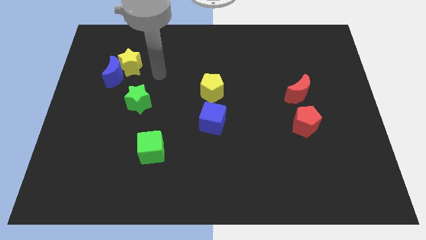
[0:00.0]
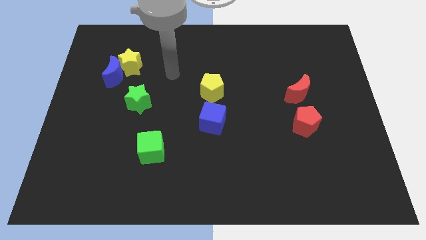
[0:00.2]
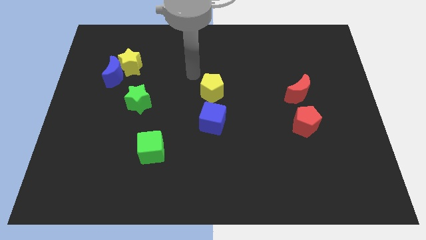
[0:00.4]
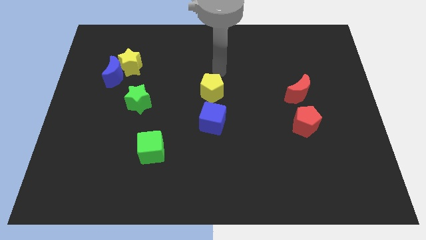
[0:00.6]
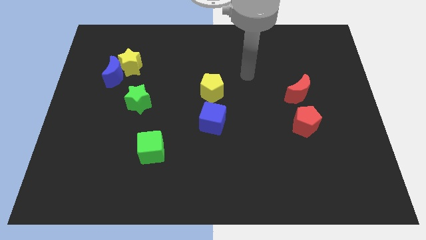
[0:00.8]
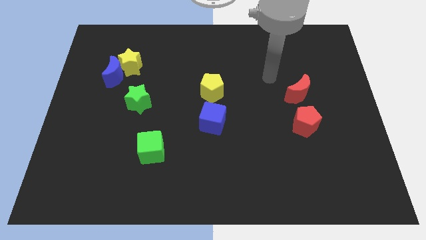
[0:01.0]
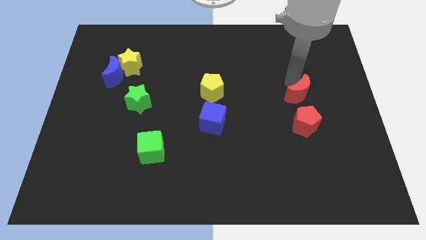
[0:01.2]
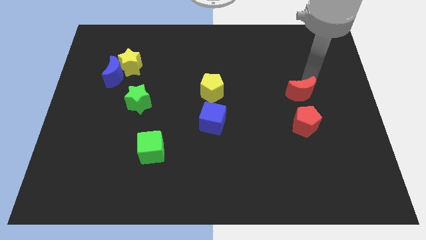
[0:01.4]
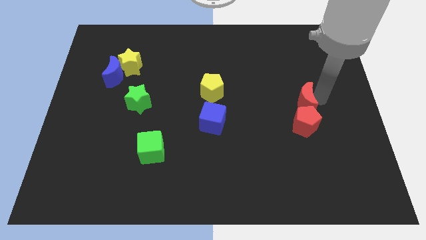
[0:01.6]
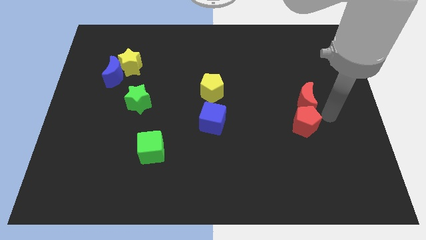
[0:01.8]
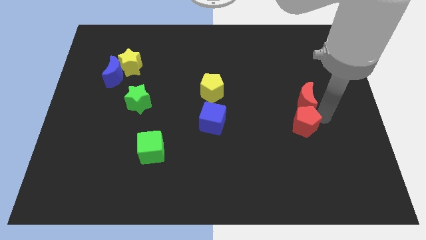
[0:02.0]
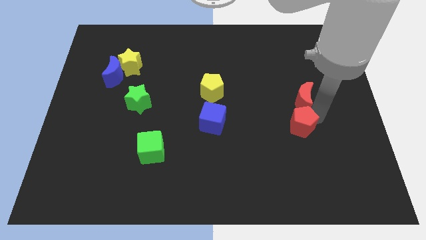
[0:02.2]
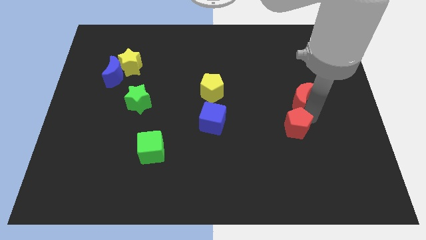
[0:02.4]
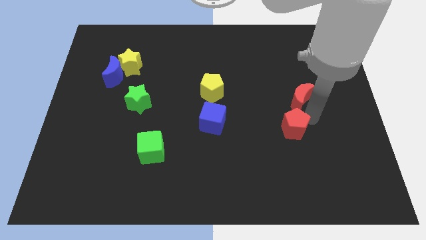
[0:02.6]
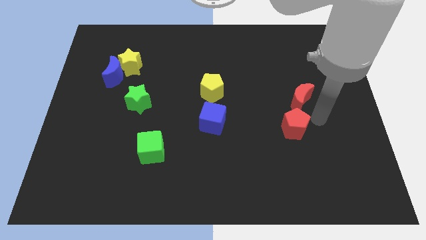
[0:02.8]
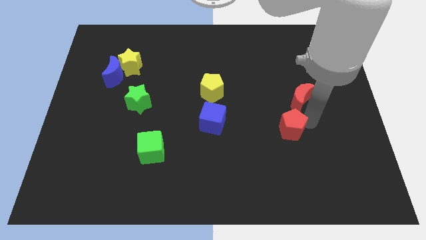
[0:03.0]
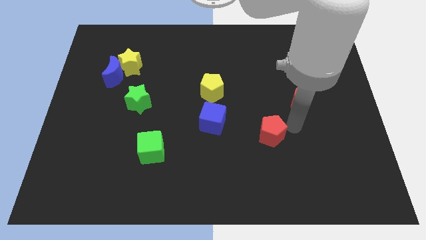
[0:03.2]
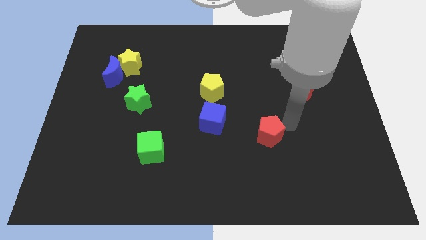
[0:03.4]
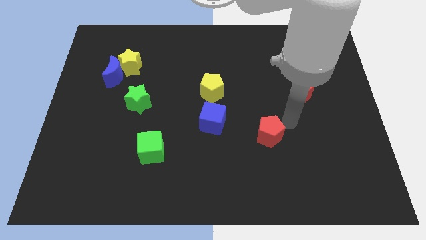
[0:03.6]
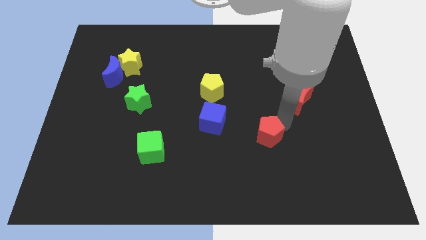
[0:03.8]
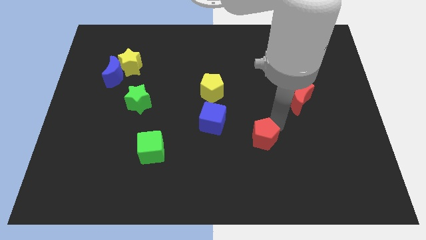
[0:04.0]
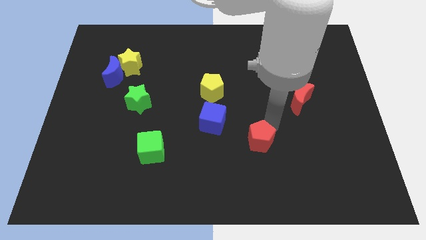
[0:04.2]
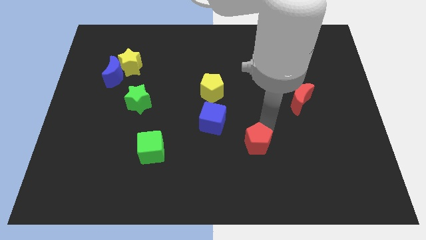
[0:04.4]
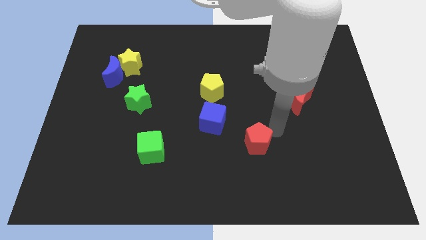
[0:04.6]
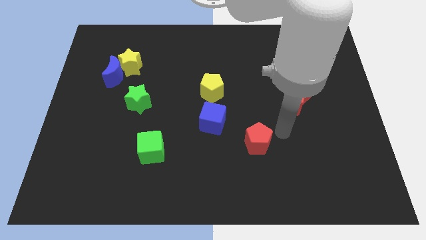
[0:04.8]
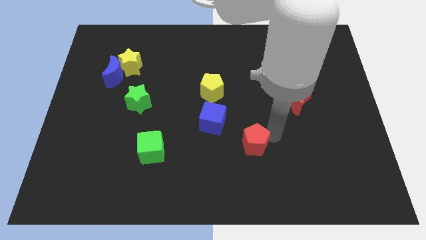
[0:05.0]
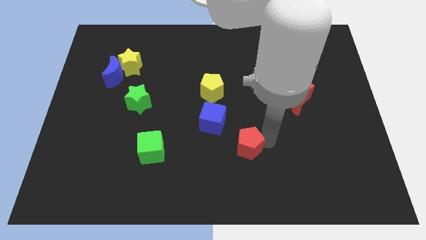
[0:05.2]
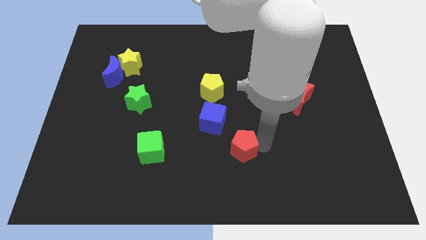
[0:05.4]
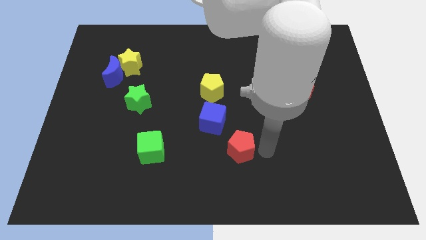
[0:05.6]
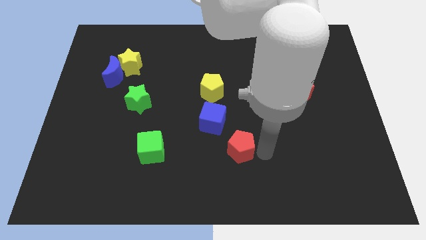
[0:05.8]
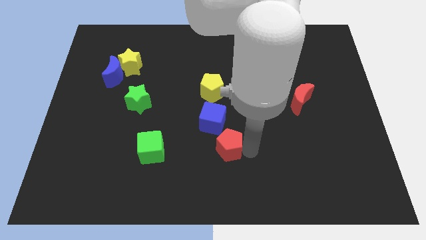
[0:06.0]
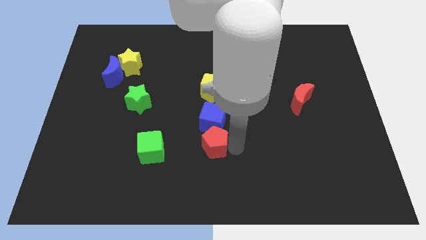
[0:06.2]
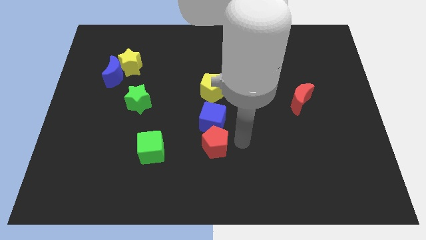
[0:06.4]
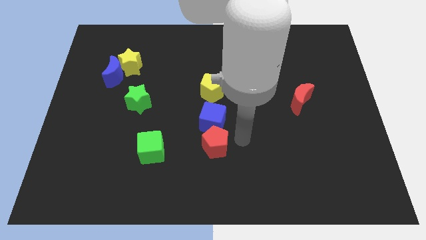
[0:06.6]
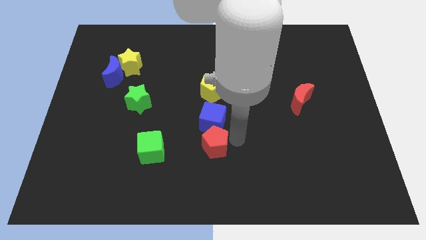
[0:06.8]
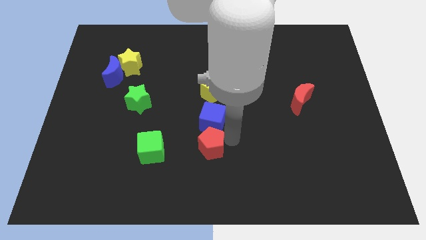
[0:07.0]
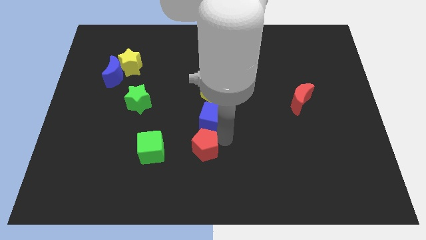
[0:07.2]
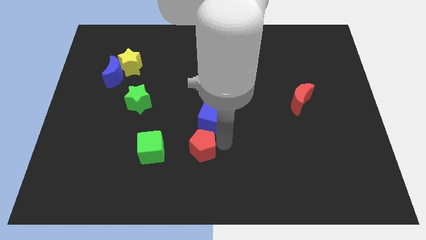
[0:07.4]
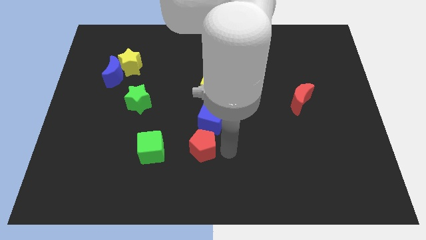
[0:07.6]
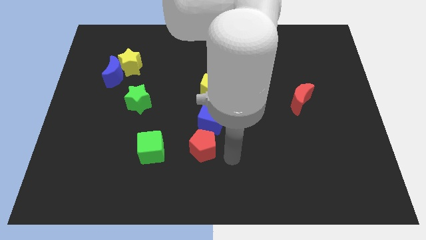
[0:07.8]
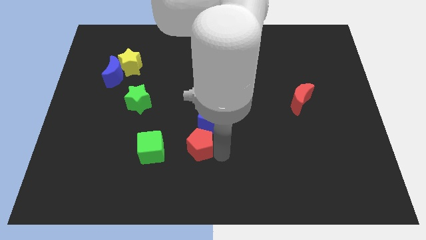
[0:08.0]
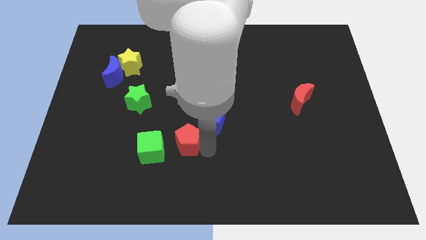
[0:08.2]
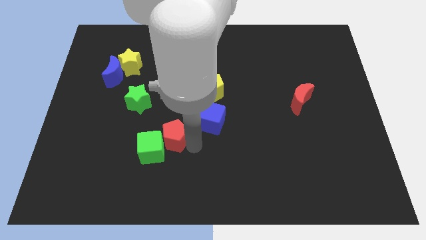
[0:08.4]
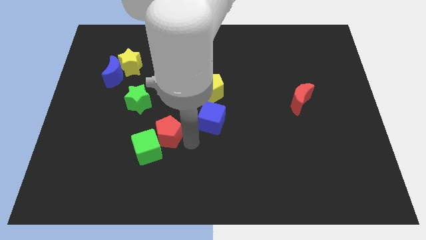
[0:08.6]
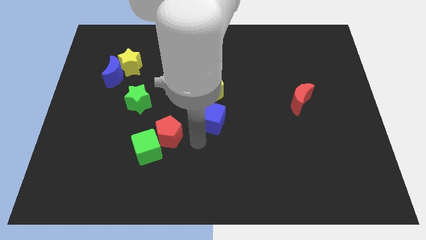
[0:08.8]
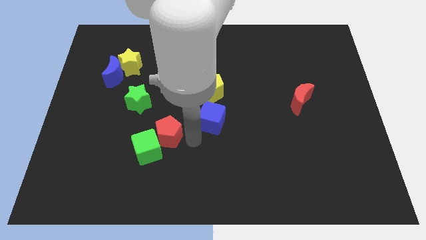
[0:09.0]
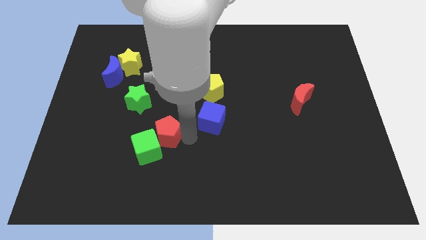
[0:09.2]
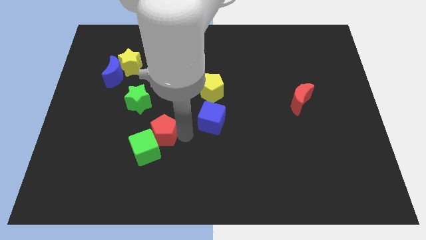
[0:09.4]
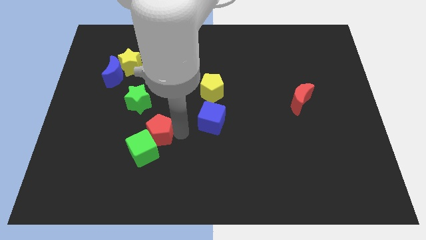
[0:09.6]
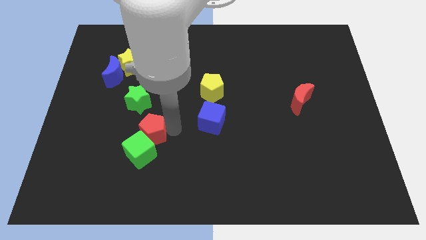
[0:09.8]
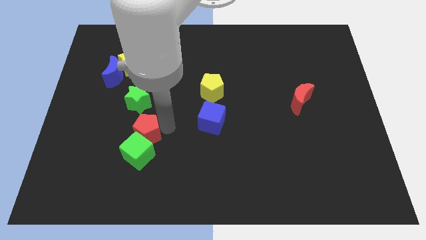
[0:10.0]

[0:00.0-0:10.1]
put the red pentagon to the top left side of the green cube

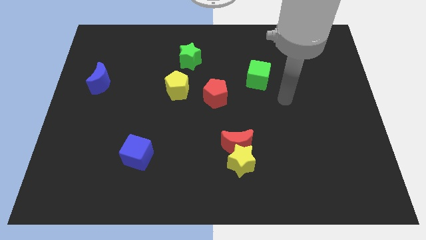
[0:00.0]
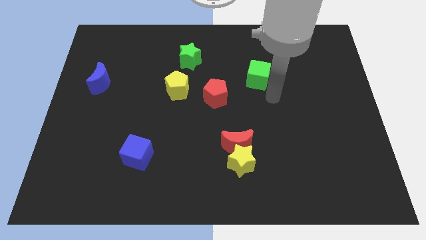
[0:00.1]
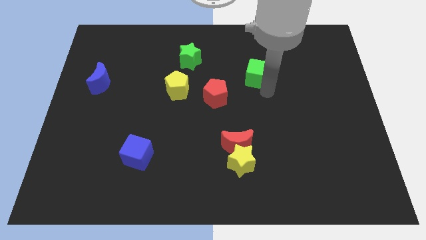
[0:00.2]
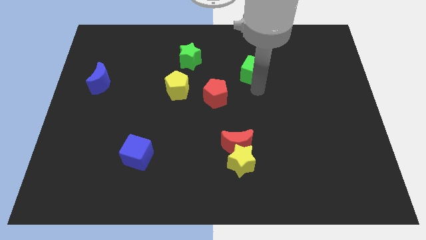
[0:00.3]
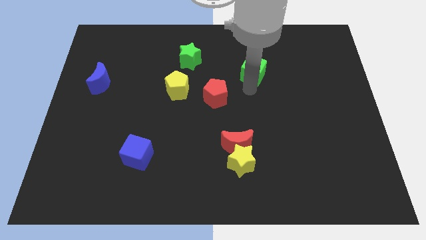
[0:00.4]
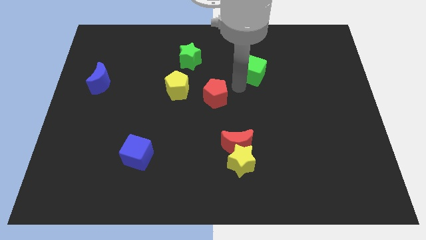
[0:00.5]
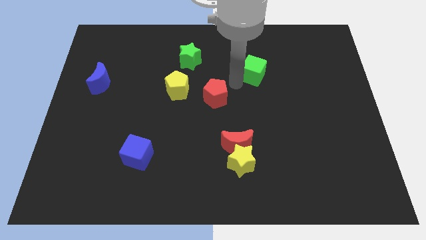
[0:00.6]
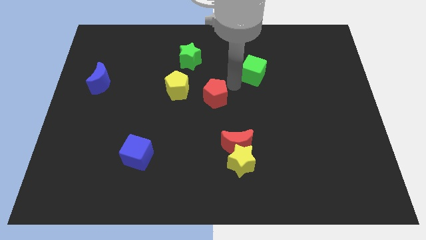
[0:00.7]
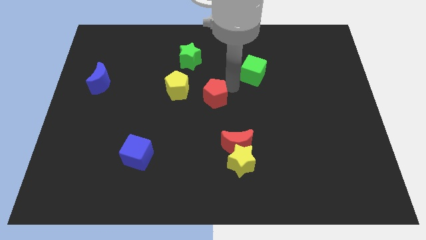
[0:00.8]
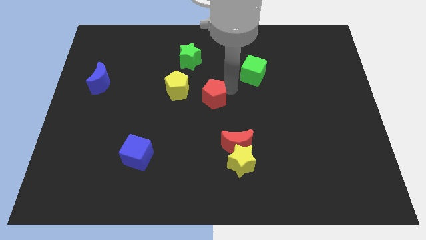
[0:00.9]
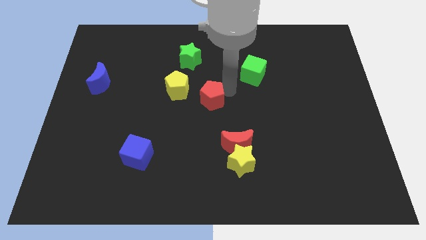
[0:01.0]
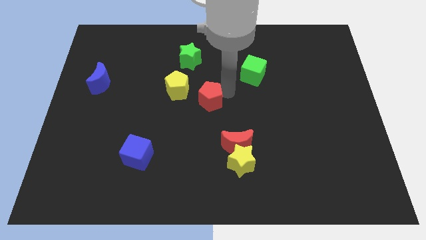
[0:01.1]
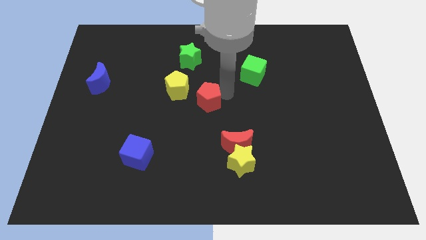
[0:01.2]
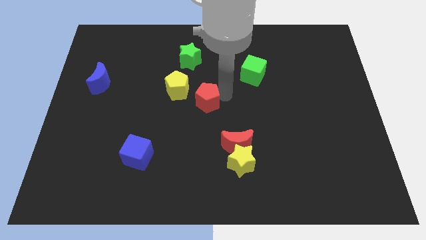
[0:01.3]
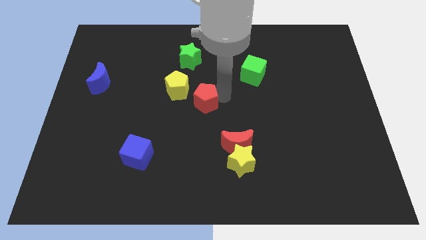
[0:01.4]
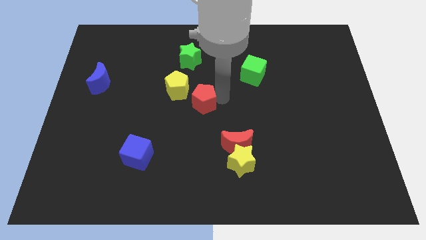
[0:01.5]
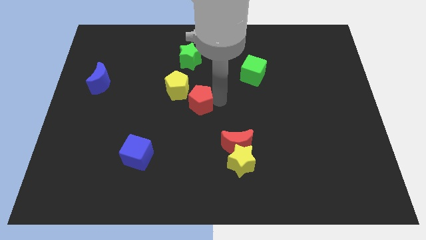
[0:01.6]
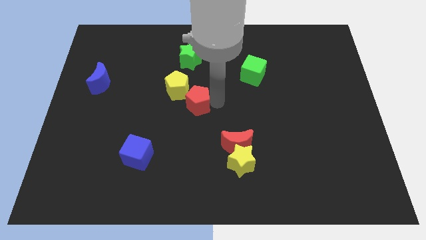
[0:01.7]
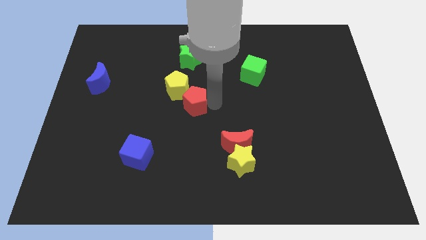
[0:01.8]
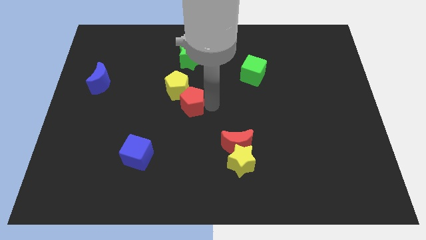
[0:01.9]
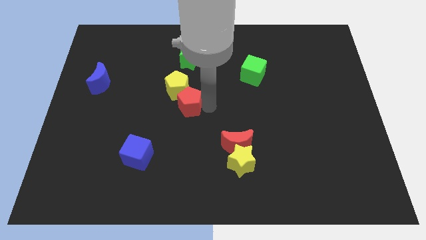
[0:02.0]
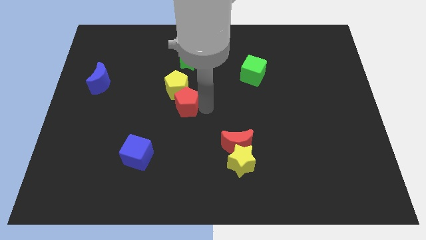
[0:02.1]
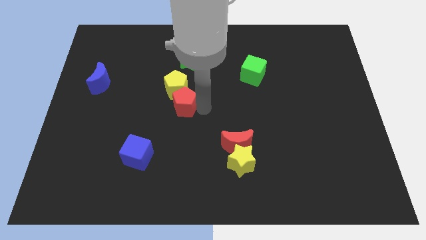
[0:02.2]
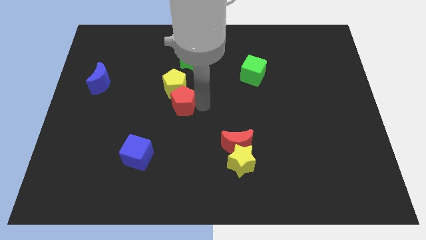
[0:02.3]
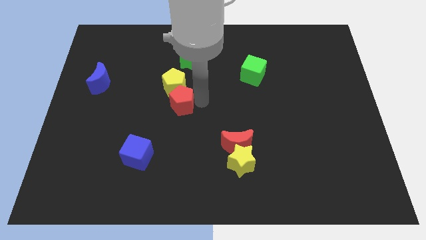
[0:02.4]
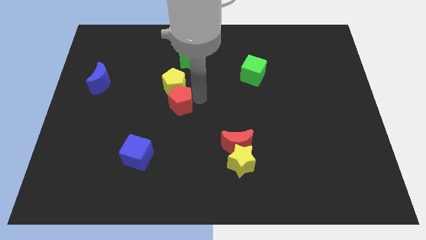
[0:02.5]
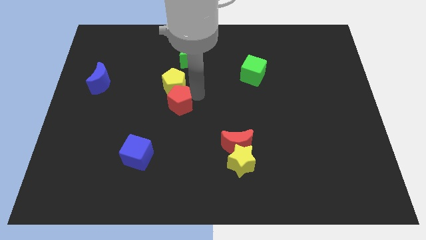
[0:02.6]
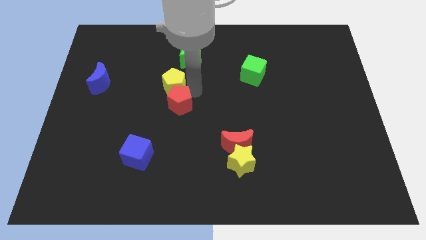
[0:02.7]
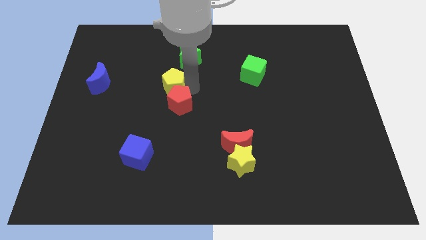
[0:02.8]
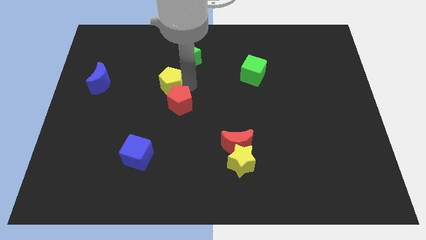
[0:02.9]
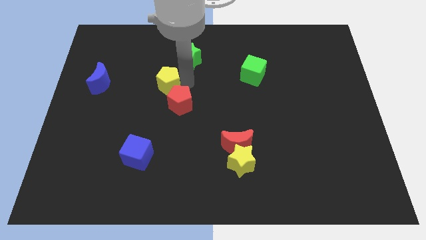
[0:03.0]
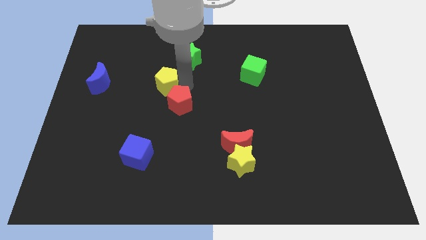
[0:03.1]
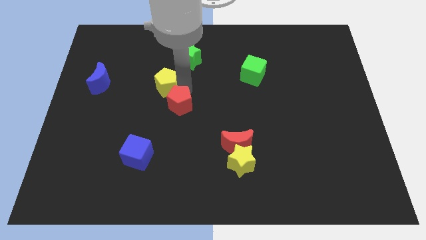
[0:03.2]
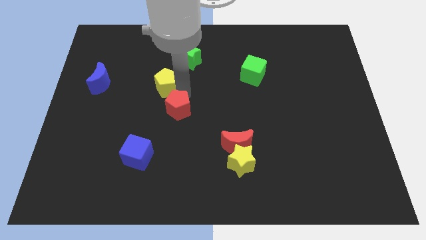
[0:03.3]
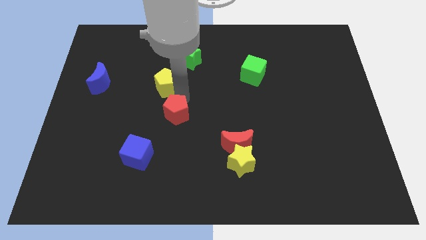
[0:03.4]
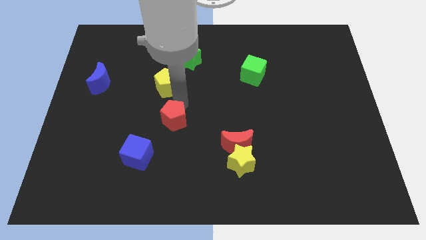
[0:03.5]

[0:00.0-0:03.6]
move the red pentagon to the top right side of the blue cube
